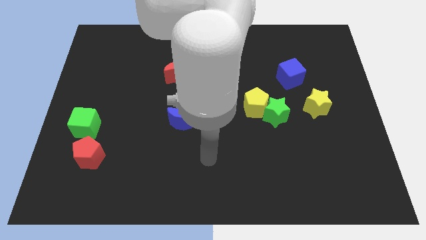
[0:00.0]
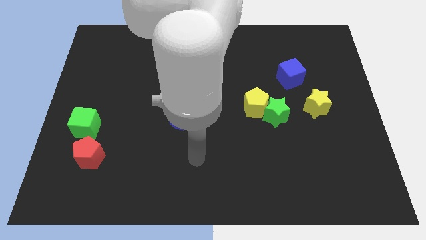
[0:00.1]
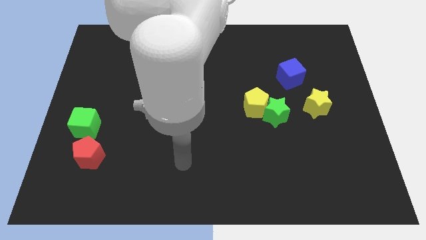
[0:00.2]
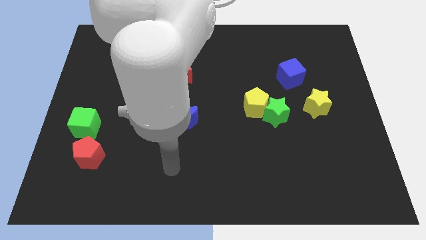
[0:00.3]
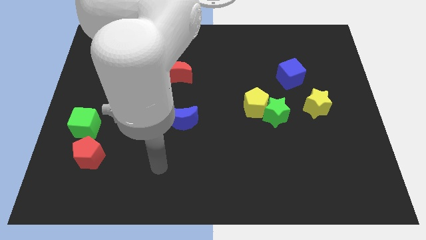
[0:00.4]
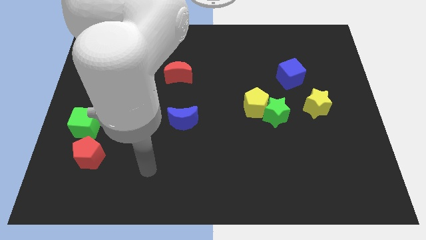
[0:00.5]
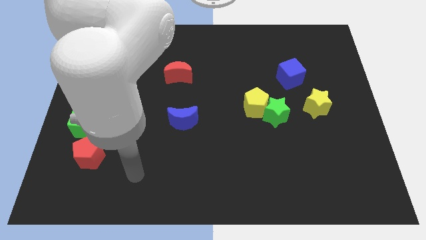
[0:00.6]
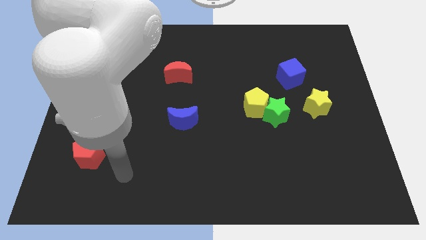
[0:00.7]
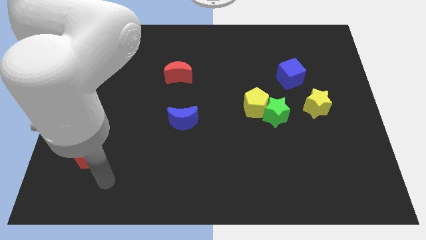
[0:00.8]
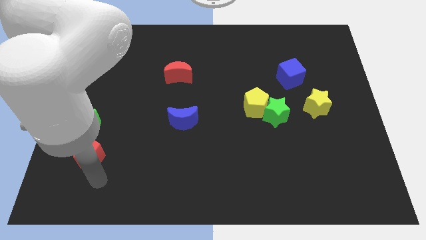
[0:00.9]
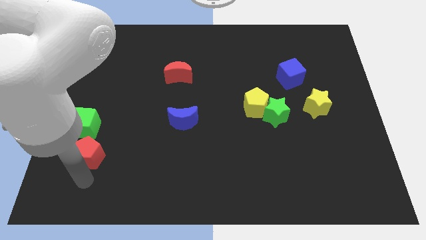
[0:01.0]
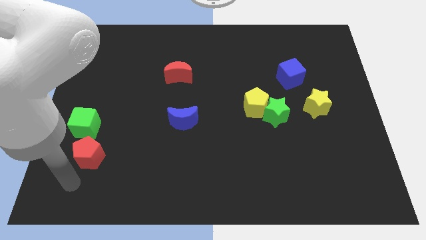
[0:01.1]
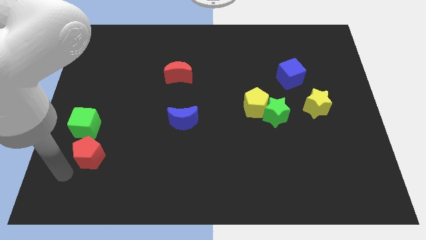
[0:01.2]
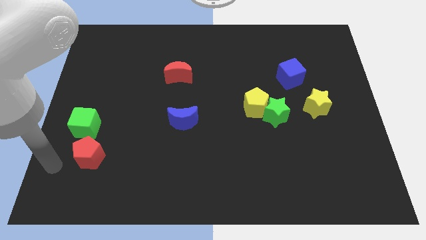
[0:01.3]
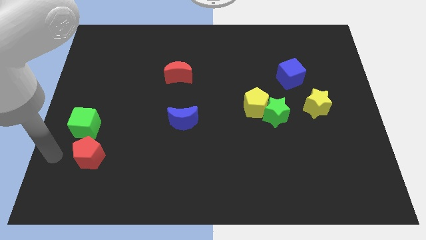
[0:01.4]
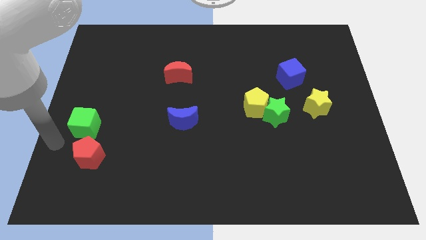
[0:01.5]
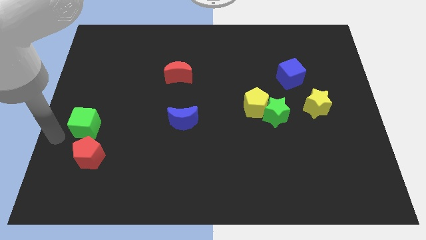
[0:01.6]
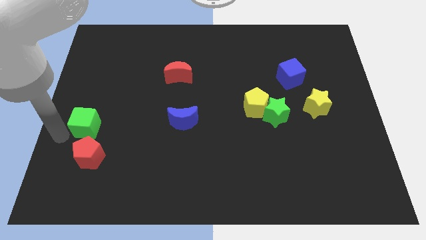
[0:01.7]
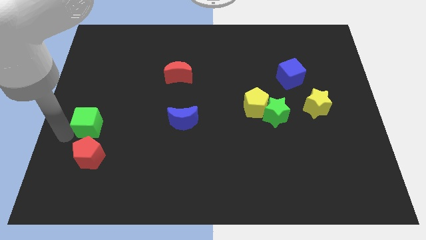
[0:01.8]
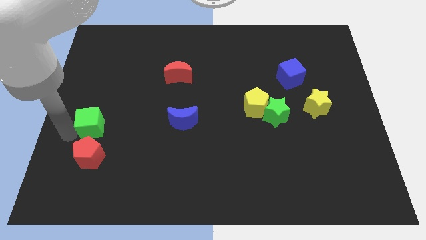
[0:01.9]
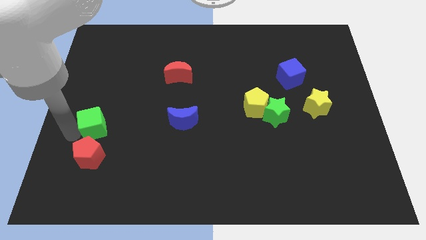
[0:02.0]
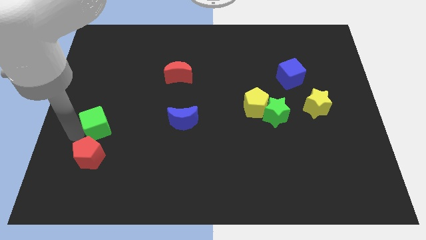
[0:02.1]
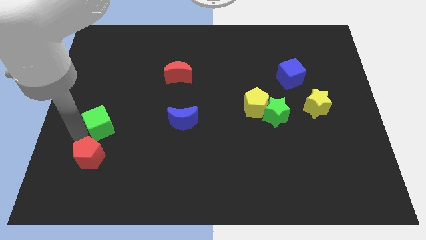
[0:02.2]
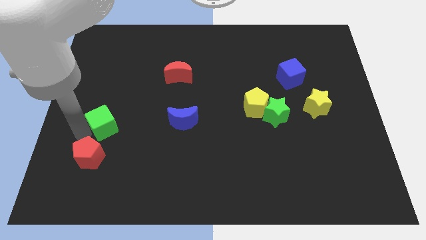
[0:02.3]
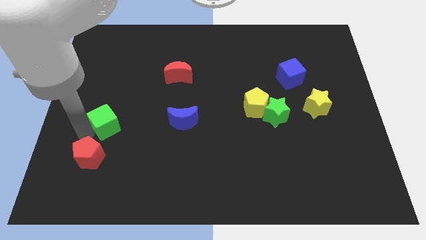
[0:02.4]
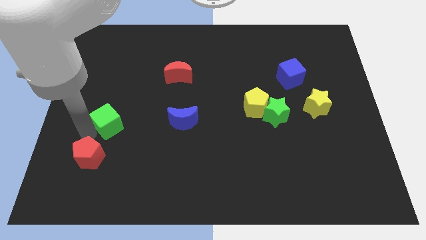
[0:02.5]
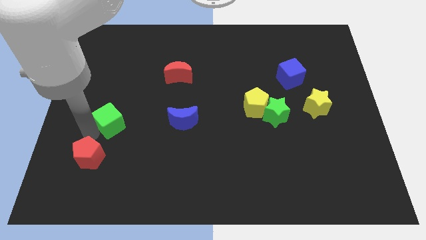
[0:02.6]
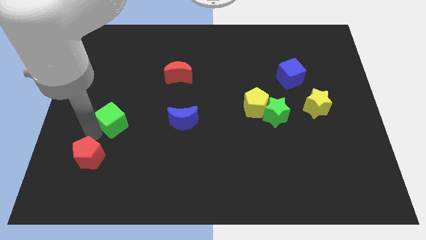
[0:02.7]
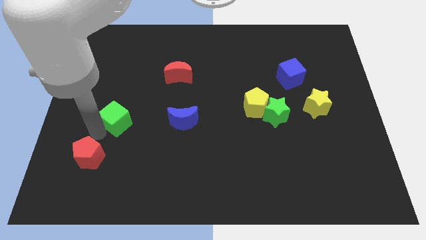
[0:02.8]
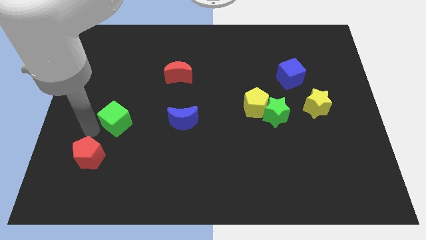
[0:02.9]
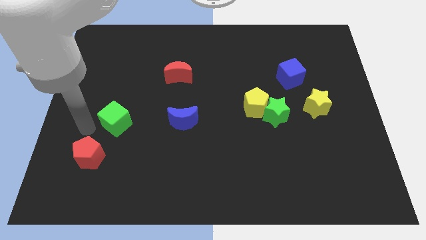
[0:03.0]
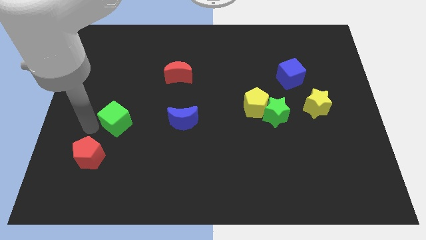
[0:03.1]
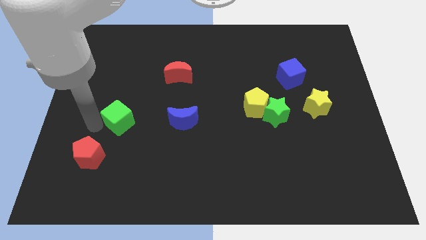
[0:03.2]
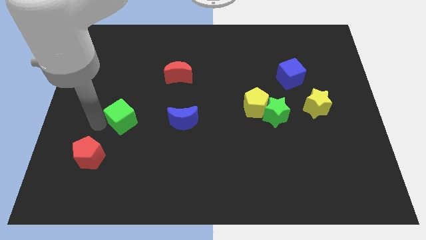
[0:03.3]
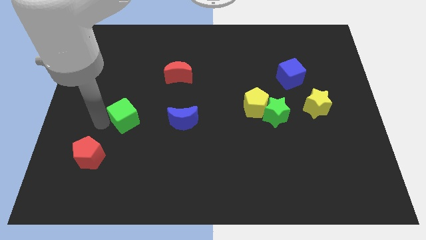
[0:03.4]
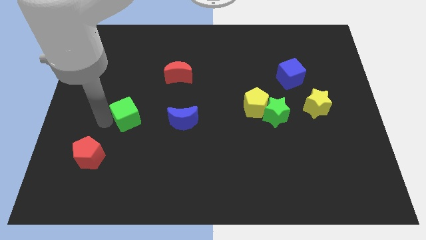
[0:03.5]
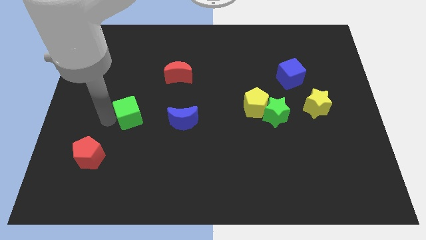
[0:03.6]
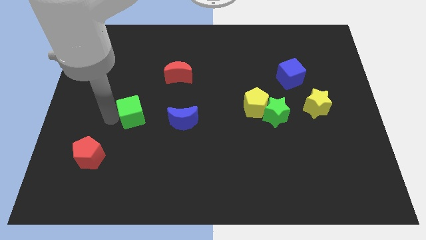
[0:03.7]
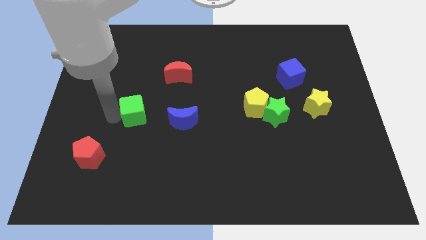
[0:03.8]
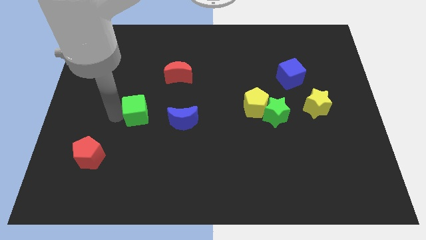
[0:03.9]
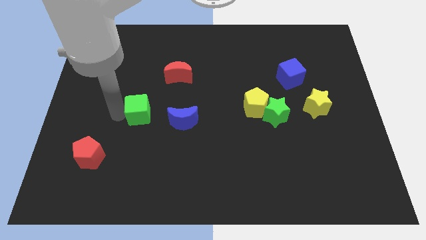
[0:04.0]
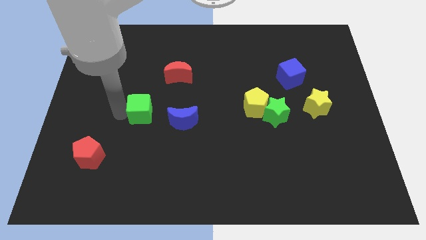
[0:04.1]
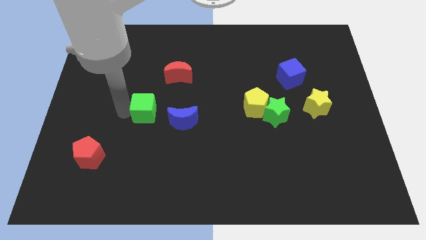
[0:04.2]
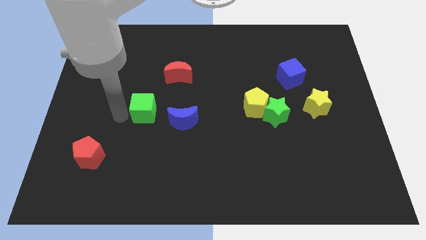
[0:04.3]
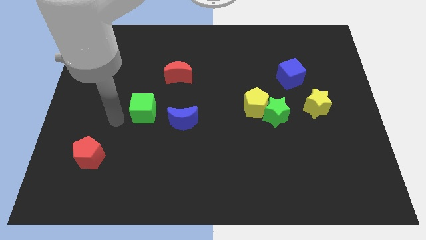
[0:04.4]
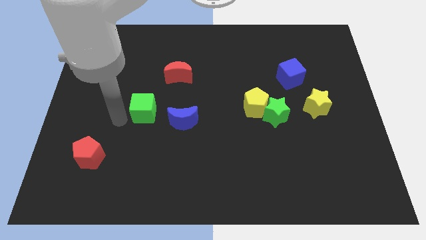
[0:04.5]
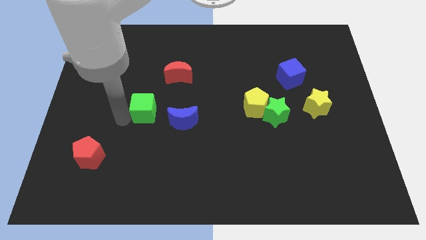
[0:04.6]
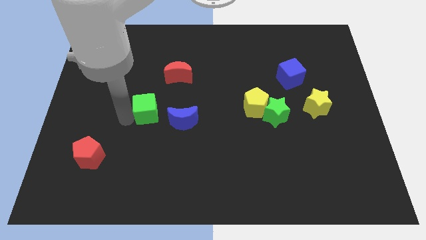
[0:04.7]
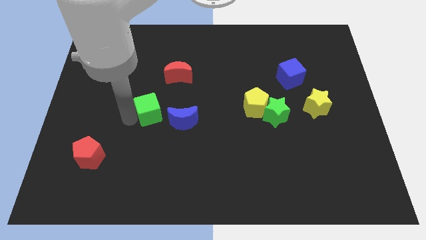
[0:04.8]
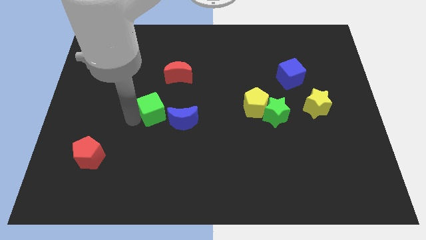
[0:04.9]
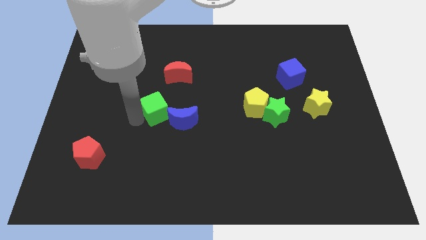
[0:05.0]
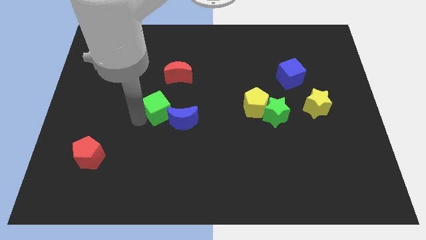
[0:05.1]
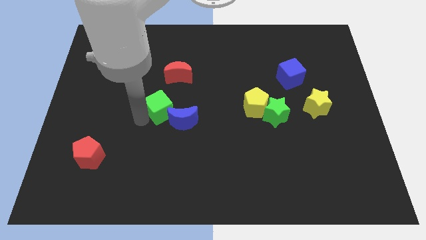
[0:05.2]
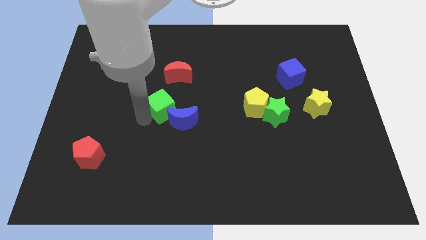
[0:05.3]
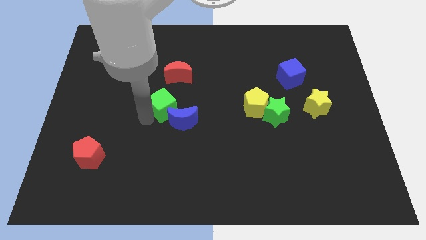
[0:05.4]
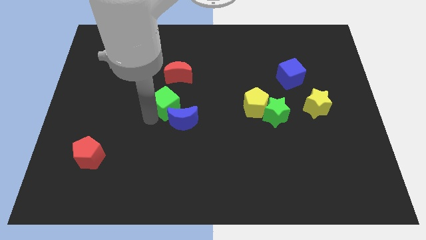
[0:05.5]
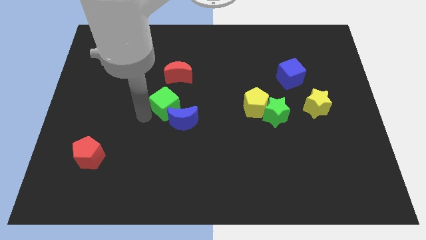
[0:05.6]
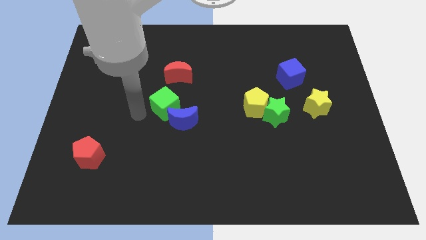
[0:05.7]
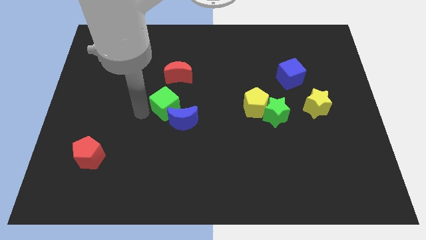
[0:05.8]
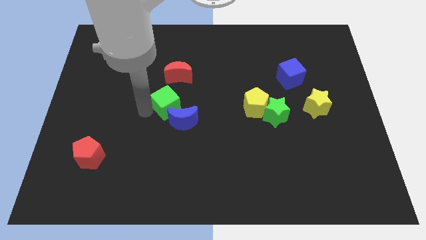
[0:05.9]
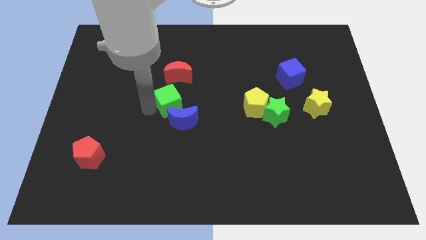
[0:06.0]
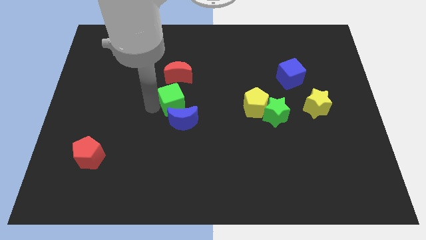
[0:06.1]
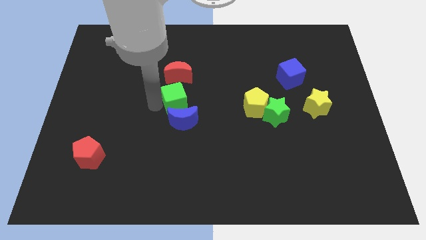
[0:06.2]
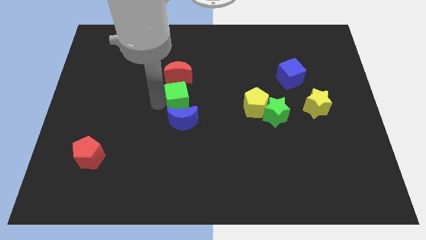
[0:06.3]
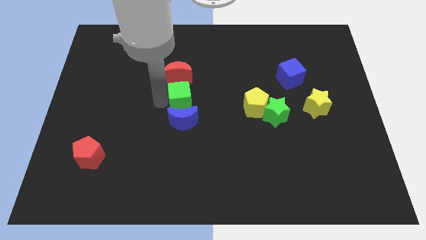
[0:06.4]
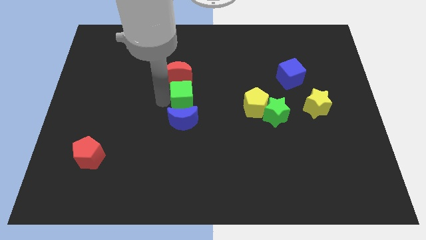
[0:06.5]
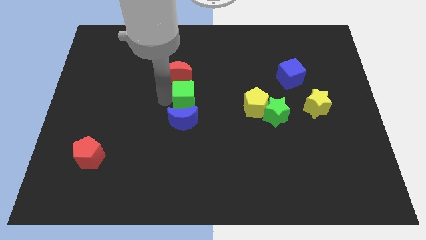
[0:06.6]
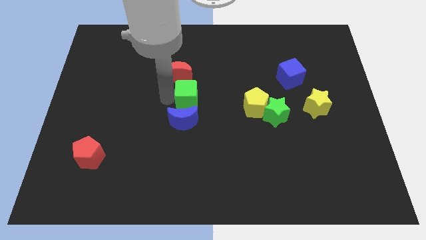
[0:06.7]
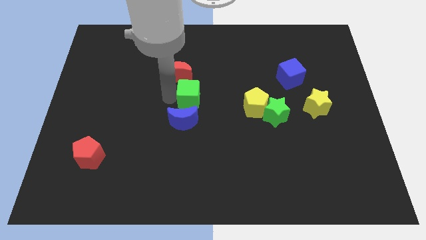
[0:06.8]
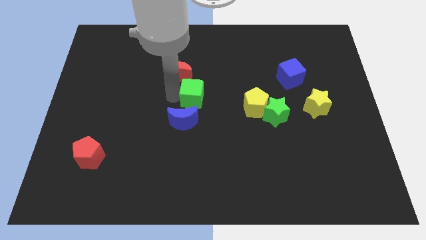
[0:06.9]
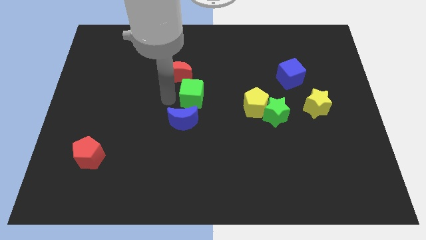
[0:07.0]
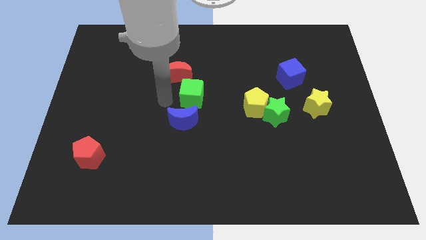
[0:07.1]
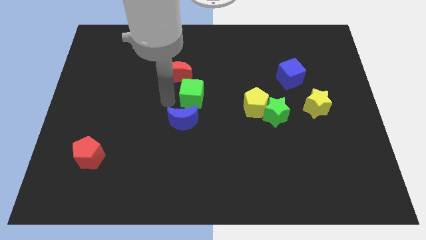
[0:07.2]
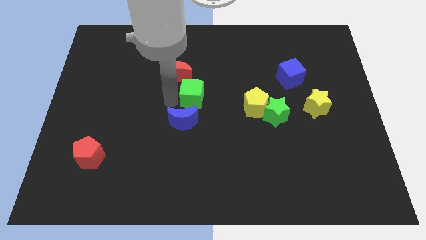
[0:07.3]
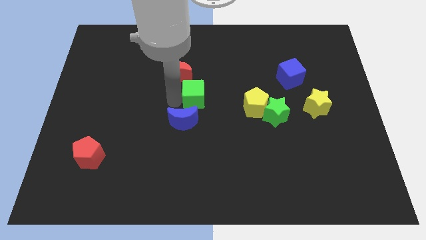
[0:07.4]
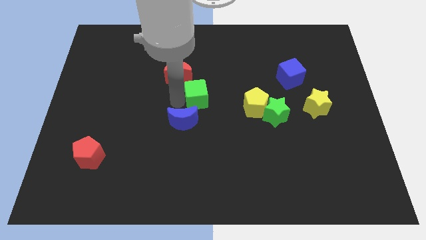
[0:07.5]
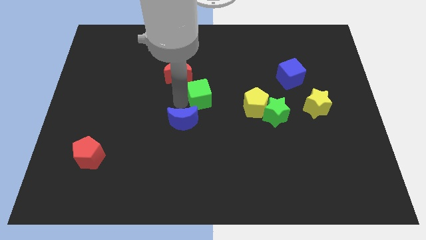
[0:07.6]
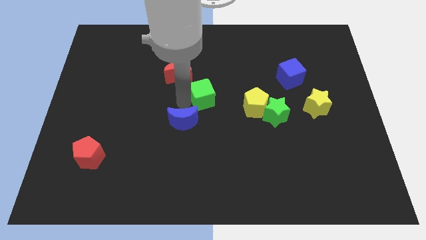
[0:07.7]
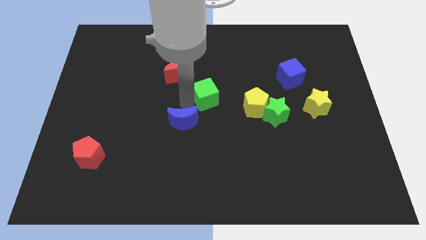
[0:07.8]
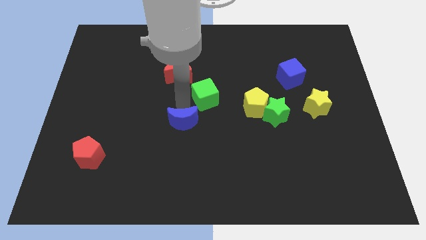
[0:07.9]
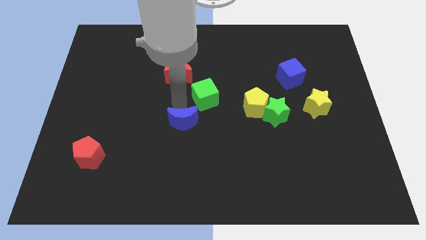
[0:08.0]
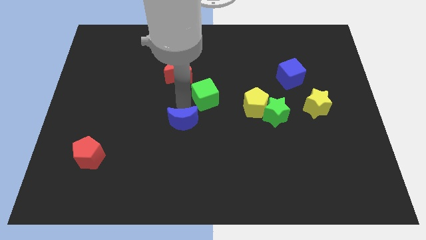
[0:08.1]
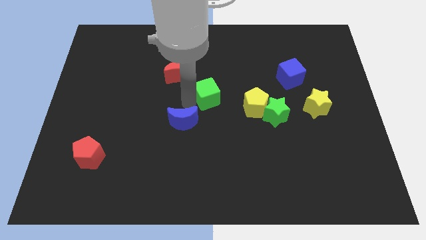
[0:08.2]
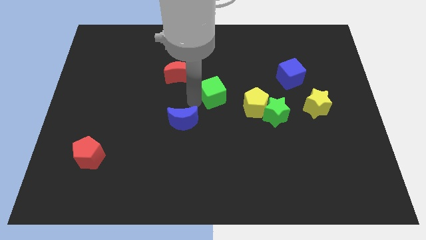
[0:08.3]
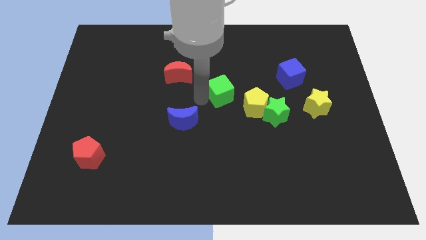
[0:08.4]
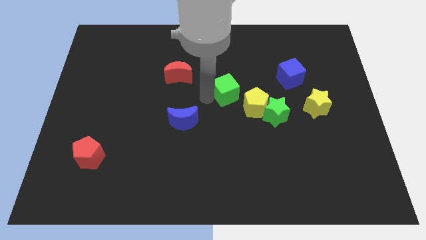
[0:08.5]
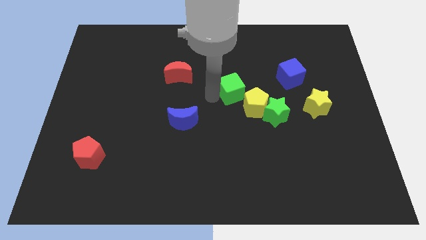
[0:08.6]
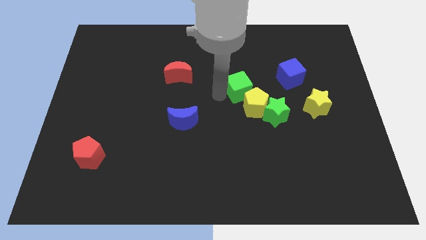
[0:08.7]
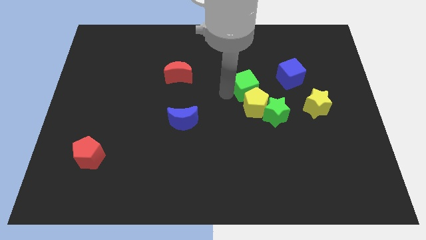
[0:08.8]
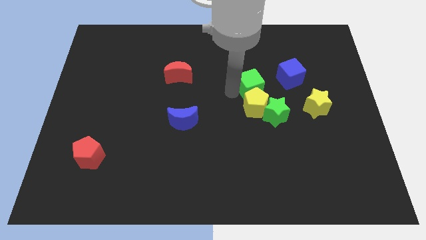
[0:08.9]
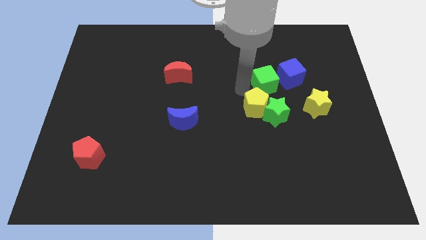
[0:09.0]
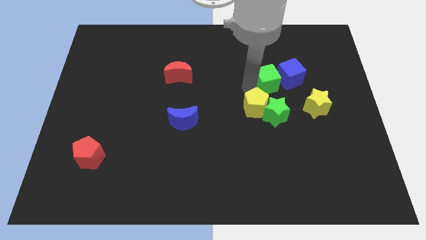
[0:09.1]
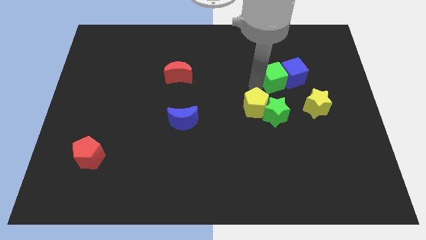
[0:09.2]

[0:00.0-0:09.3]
move the green cube close to the blue cube
